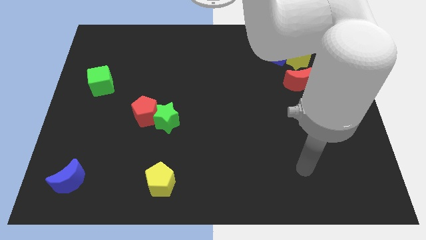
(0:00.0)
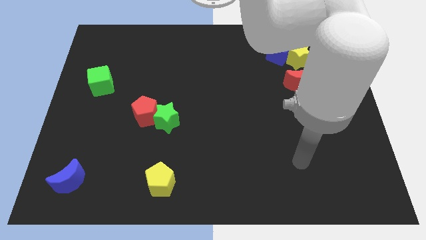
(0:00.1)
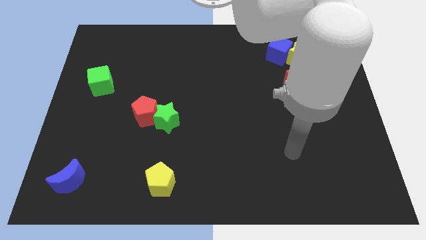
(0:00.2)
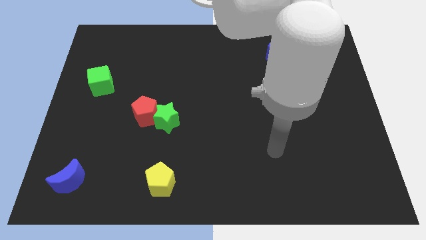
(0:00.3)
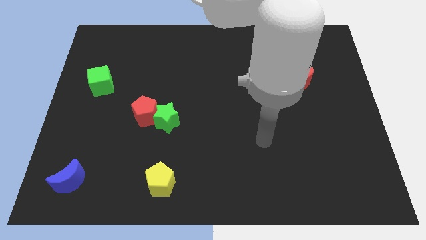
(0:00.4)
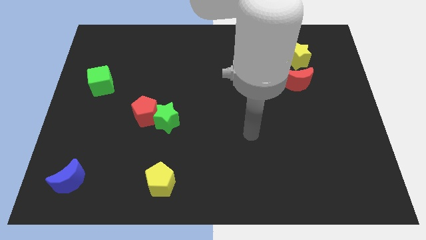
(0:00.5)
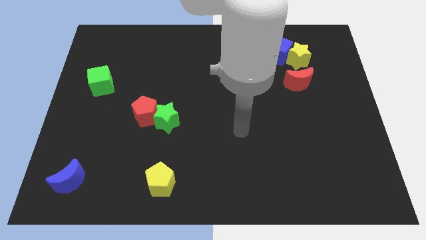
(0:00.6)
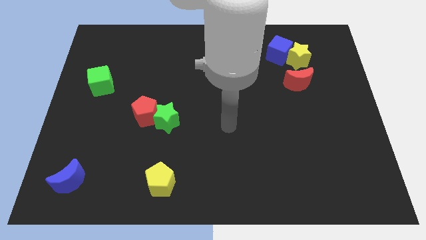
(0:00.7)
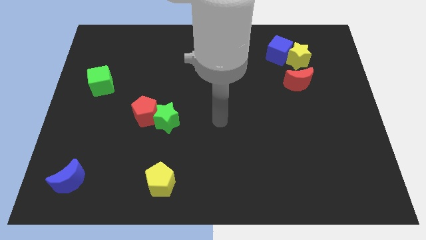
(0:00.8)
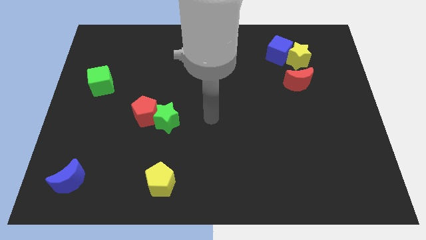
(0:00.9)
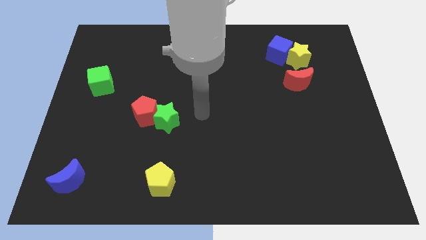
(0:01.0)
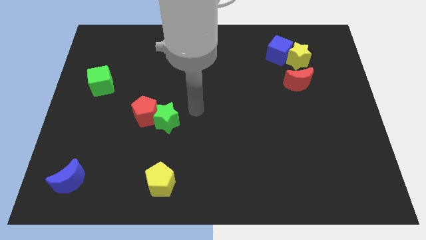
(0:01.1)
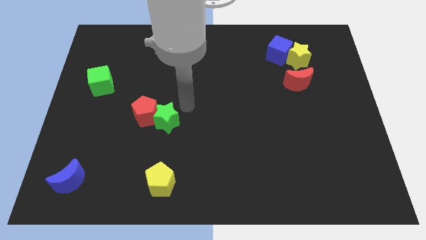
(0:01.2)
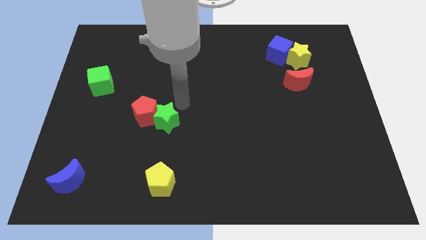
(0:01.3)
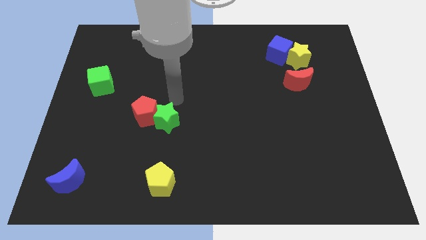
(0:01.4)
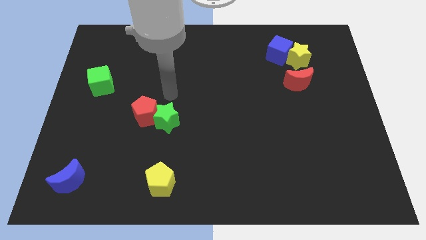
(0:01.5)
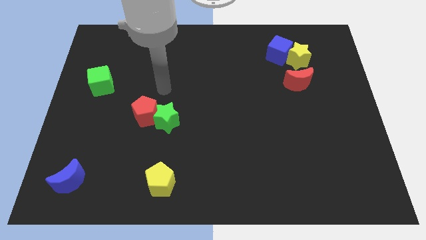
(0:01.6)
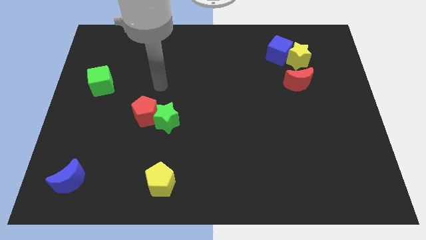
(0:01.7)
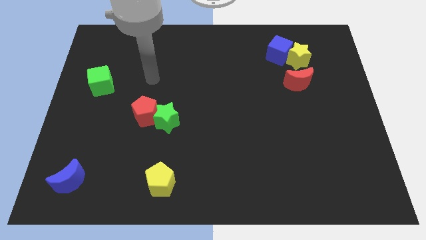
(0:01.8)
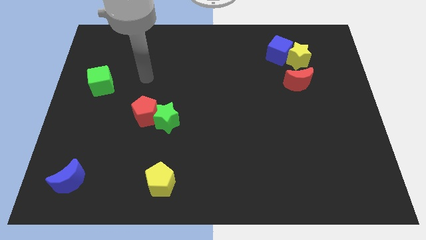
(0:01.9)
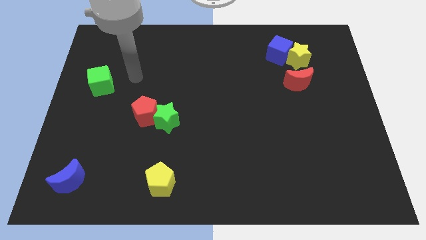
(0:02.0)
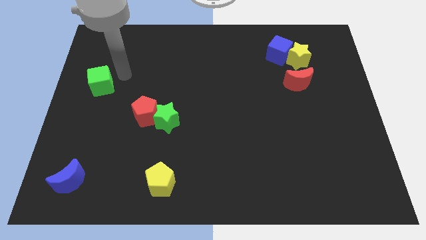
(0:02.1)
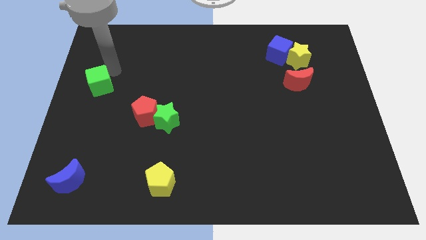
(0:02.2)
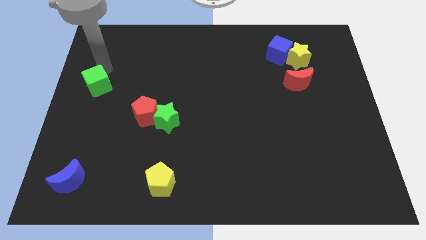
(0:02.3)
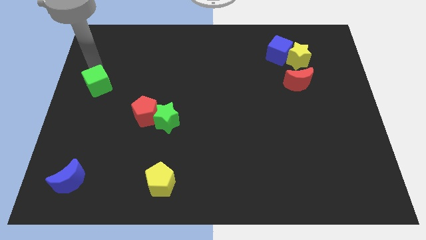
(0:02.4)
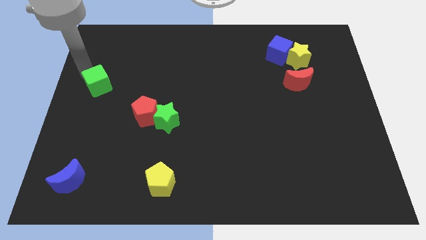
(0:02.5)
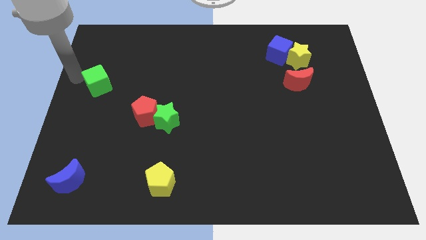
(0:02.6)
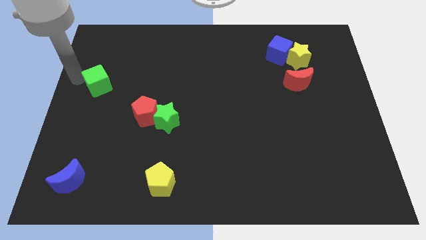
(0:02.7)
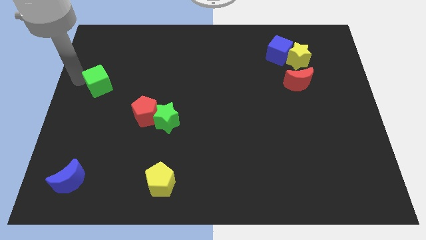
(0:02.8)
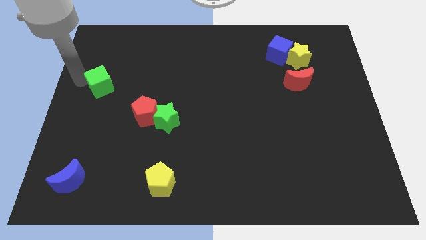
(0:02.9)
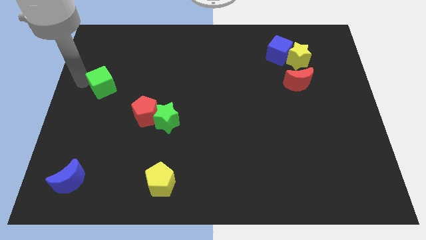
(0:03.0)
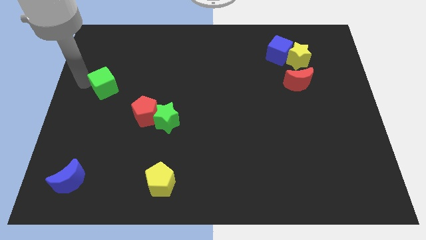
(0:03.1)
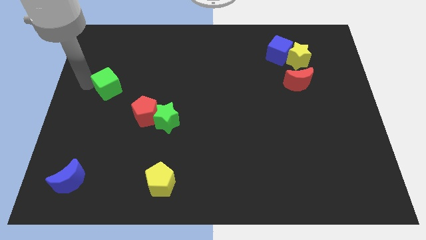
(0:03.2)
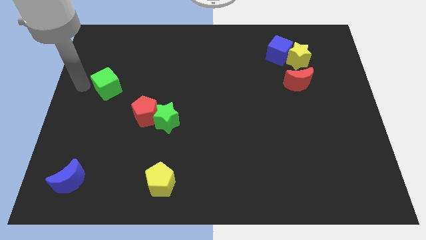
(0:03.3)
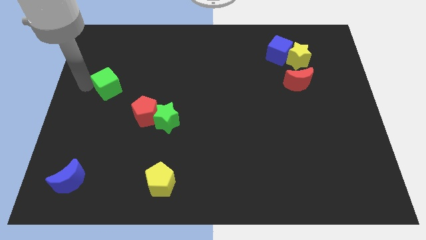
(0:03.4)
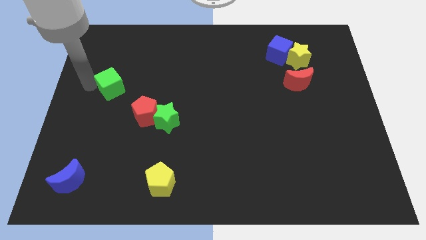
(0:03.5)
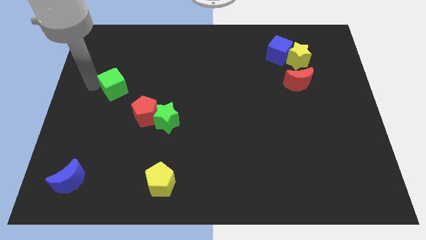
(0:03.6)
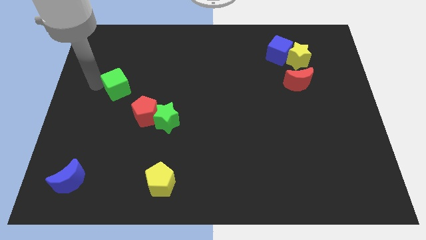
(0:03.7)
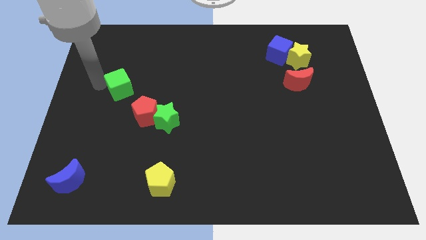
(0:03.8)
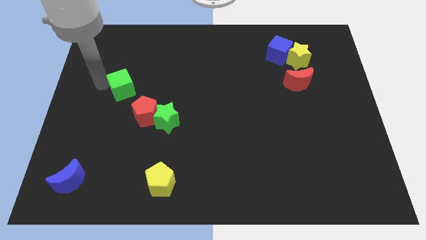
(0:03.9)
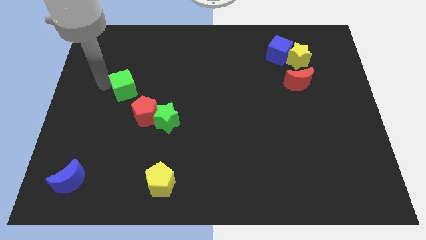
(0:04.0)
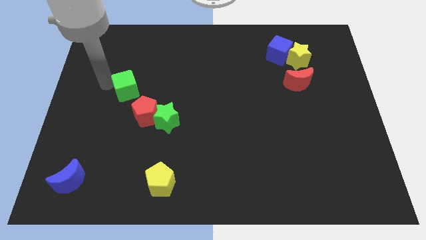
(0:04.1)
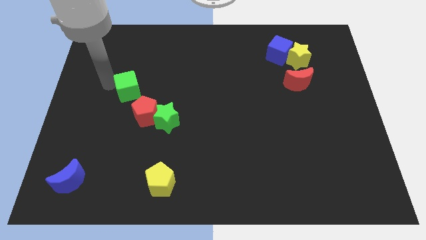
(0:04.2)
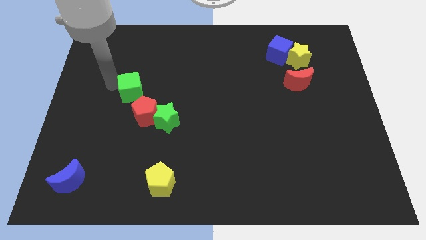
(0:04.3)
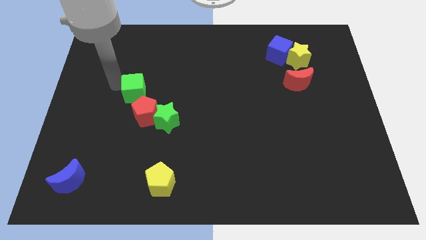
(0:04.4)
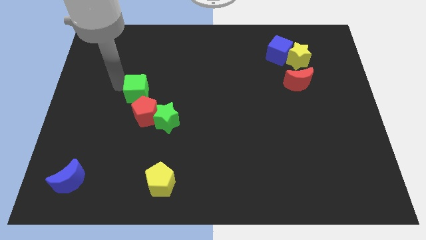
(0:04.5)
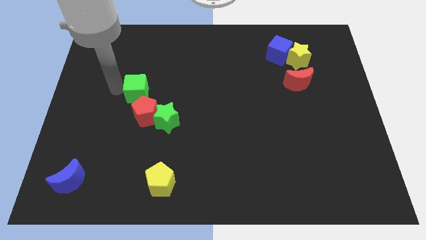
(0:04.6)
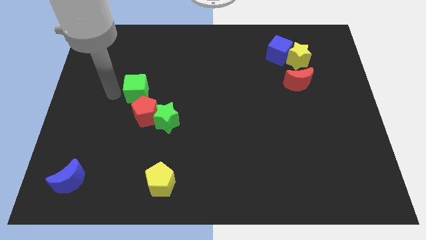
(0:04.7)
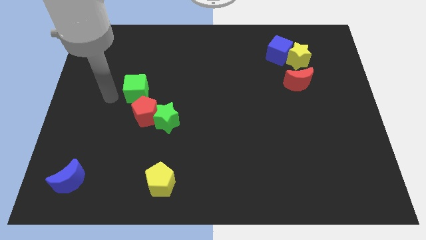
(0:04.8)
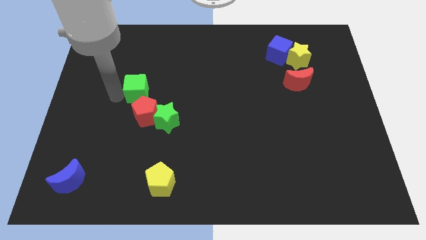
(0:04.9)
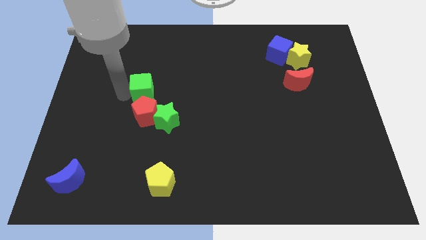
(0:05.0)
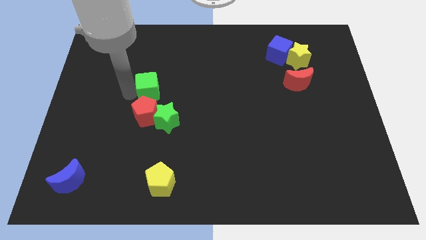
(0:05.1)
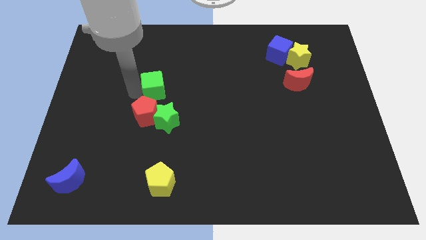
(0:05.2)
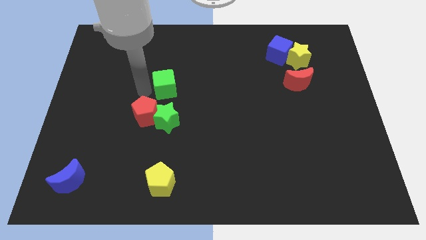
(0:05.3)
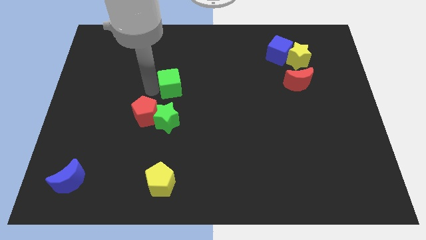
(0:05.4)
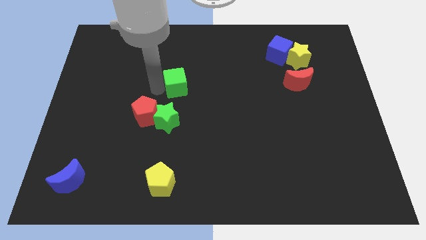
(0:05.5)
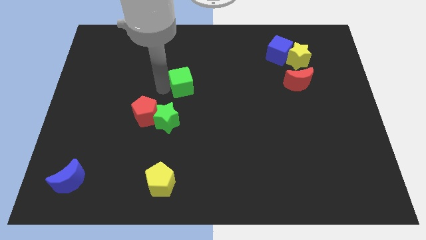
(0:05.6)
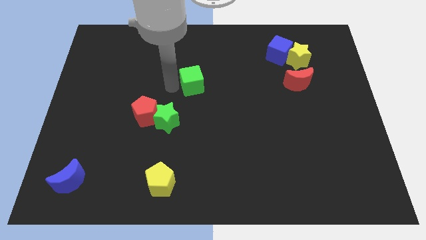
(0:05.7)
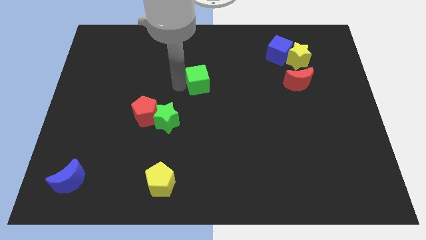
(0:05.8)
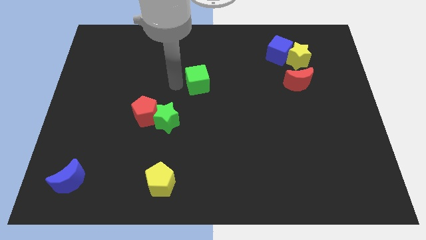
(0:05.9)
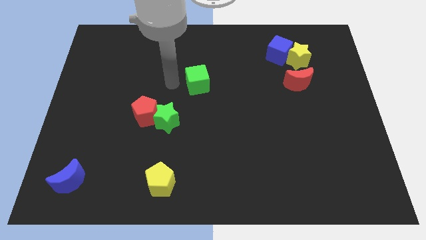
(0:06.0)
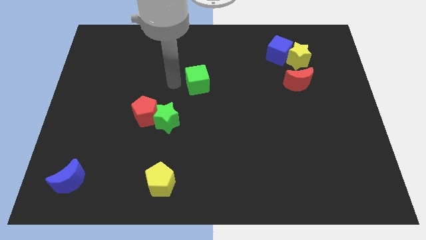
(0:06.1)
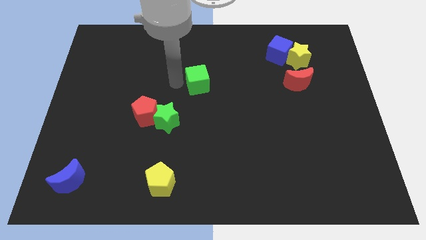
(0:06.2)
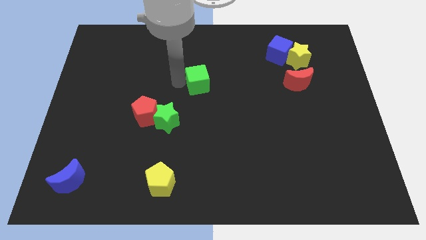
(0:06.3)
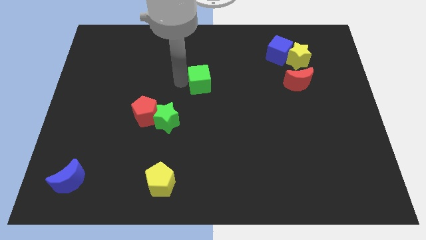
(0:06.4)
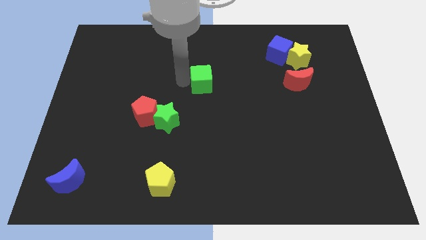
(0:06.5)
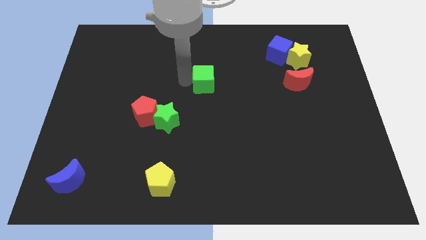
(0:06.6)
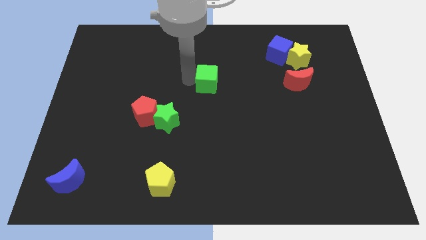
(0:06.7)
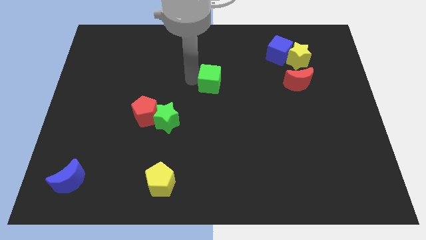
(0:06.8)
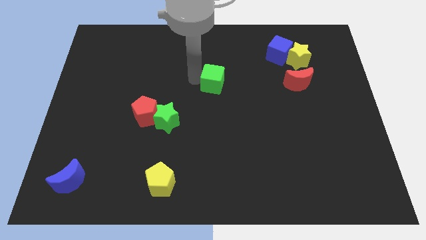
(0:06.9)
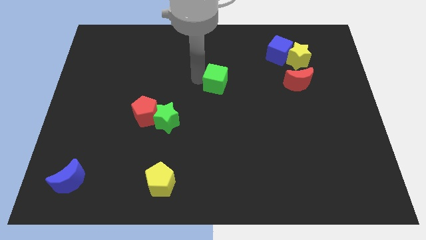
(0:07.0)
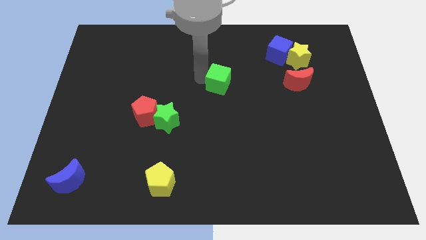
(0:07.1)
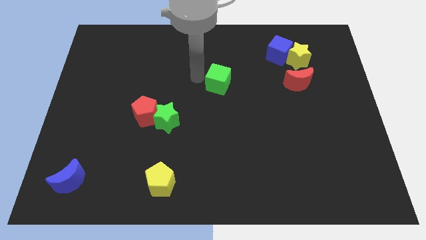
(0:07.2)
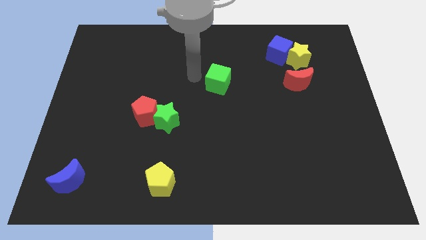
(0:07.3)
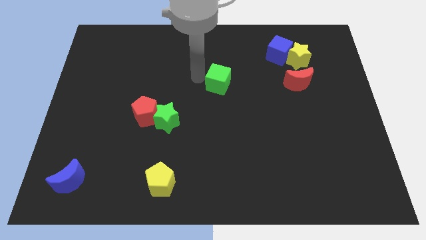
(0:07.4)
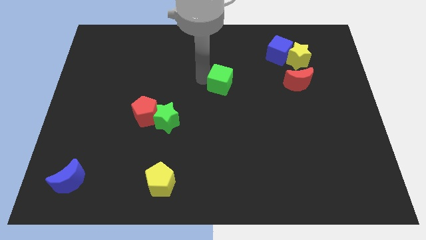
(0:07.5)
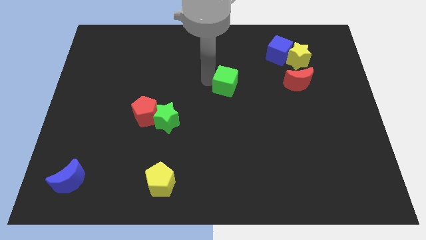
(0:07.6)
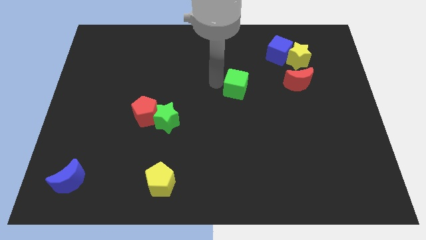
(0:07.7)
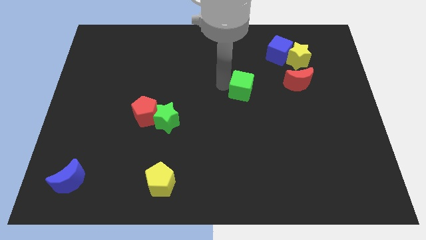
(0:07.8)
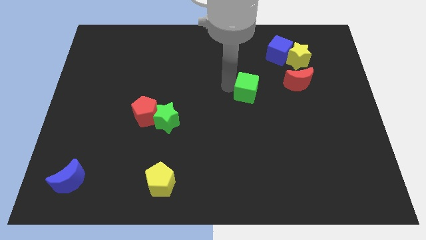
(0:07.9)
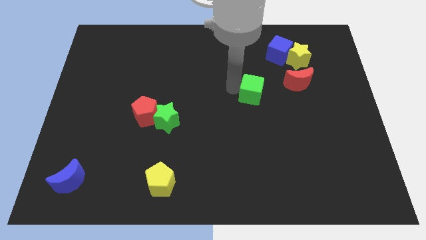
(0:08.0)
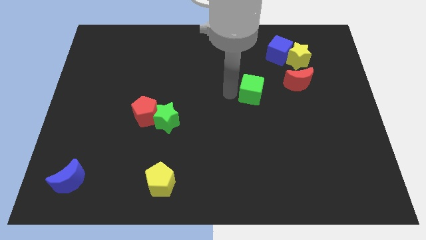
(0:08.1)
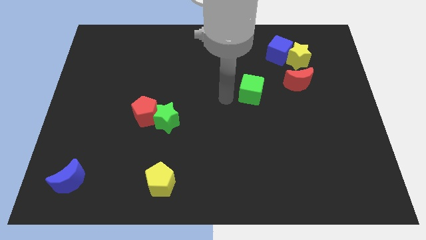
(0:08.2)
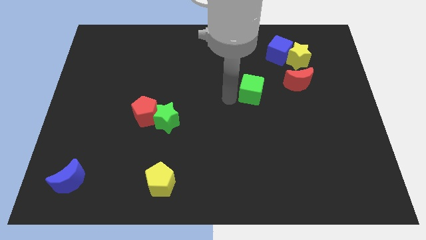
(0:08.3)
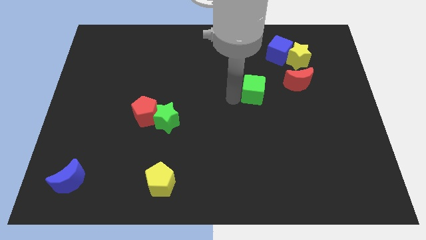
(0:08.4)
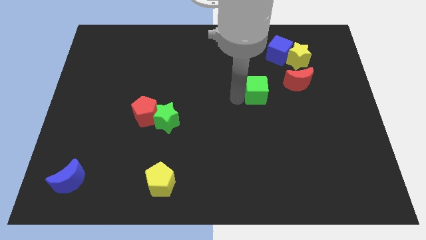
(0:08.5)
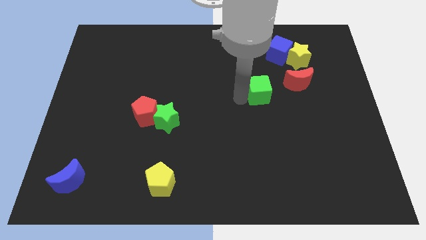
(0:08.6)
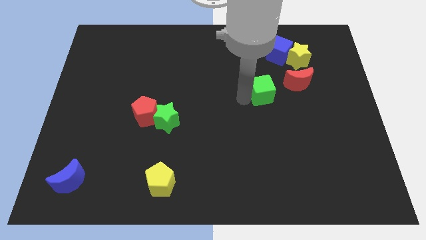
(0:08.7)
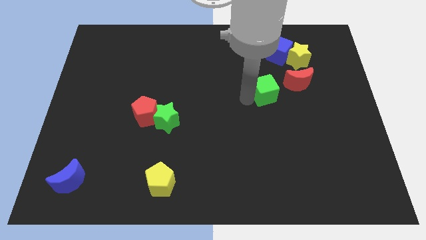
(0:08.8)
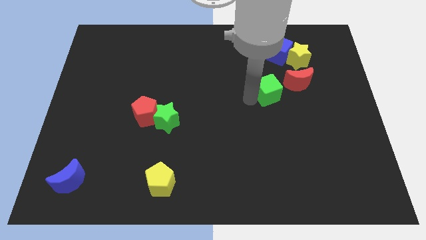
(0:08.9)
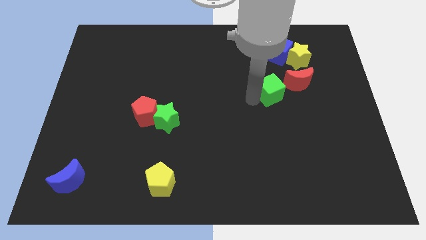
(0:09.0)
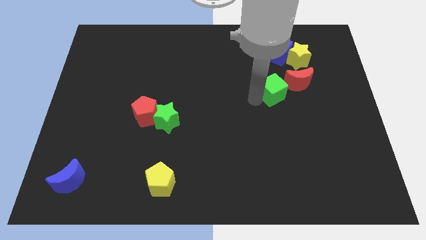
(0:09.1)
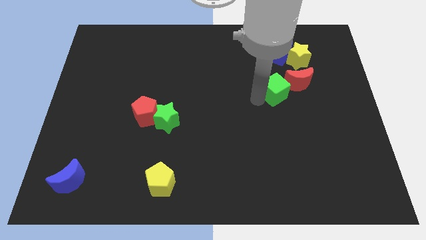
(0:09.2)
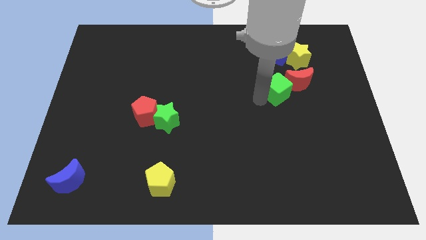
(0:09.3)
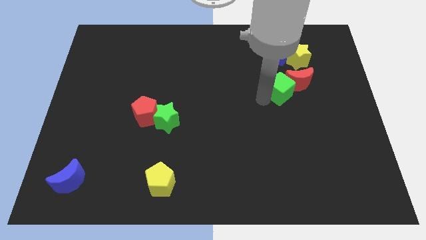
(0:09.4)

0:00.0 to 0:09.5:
put the green cube to the red moon
